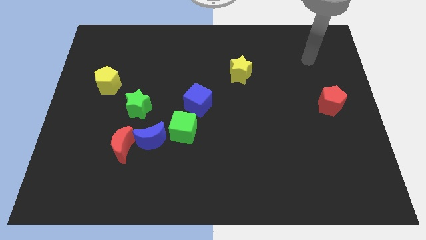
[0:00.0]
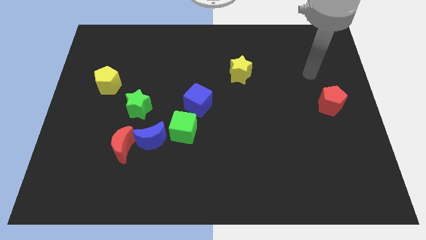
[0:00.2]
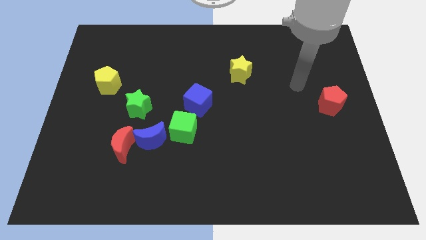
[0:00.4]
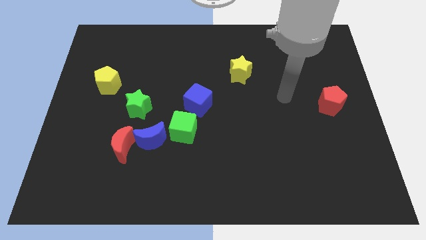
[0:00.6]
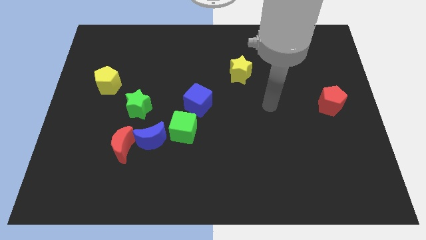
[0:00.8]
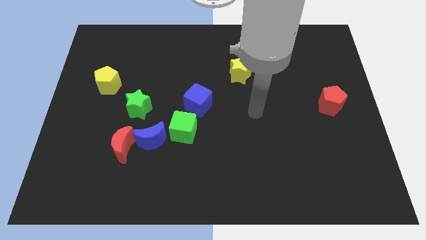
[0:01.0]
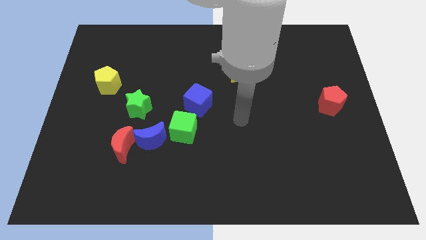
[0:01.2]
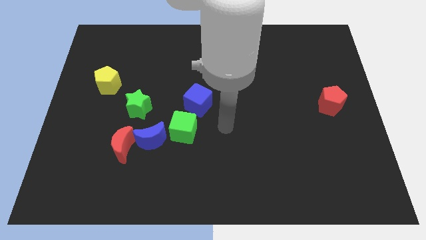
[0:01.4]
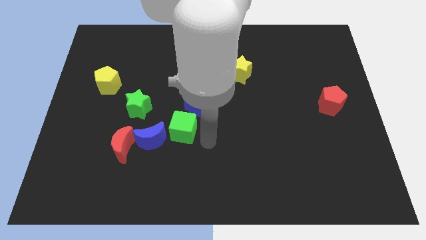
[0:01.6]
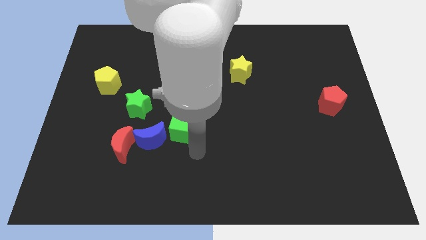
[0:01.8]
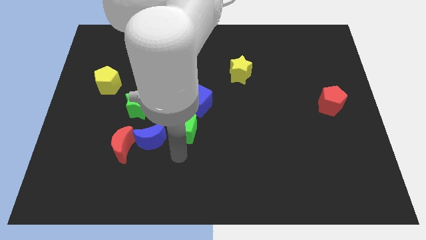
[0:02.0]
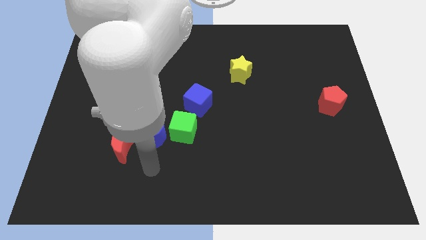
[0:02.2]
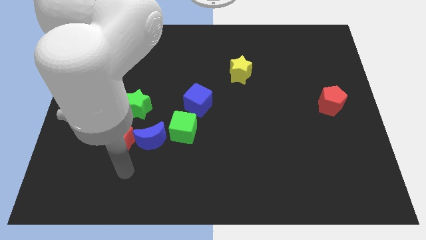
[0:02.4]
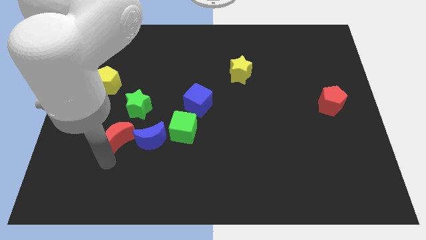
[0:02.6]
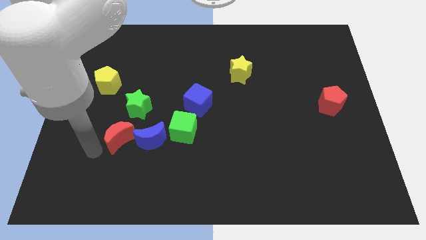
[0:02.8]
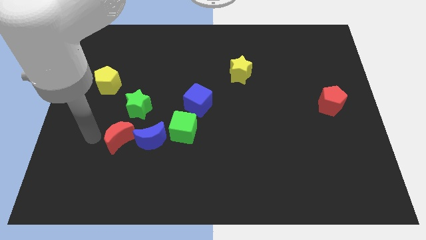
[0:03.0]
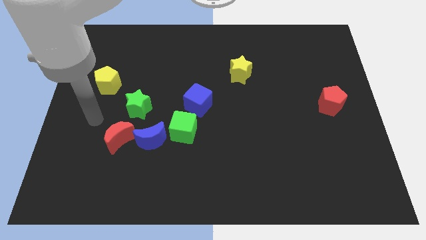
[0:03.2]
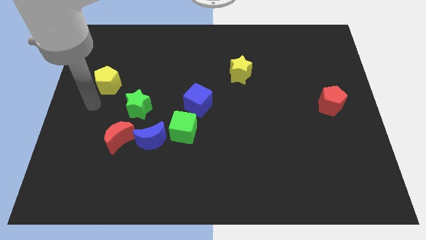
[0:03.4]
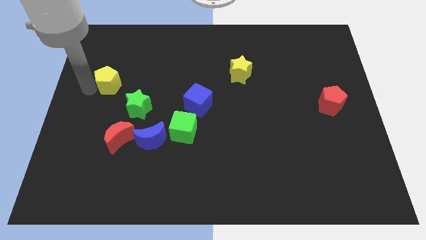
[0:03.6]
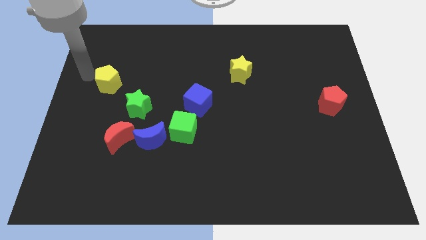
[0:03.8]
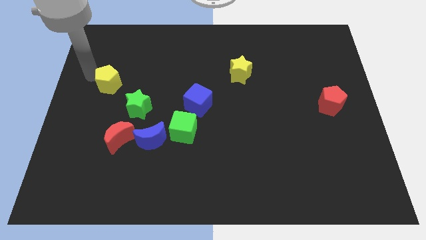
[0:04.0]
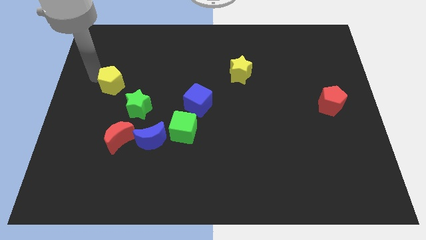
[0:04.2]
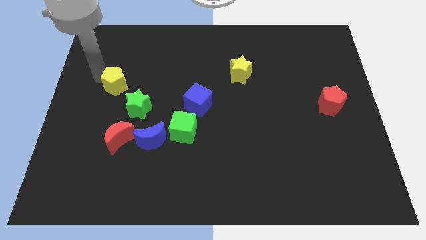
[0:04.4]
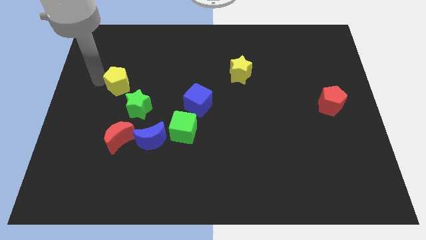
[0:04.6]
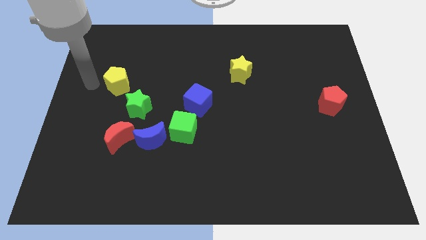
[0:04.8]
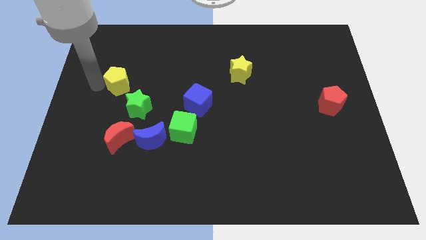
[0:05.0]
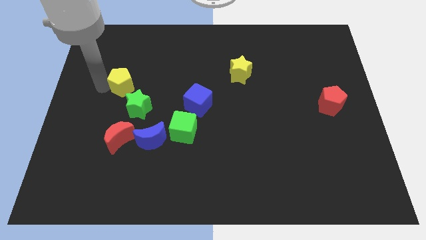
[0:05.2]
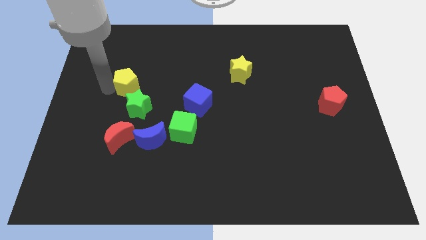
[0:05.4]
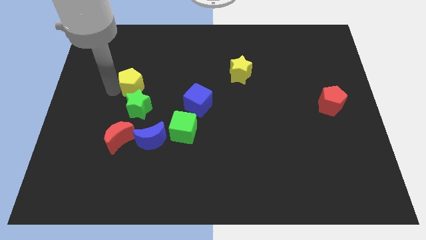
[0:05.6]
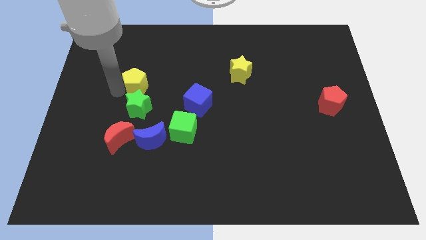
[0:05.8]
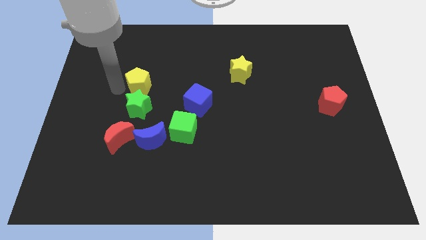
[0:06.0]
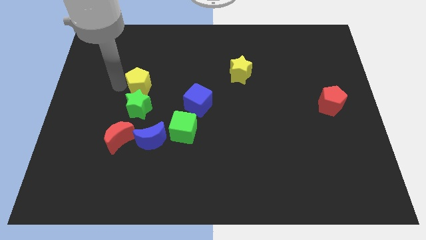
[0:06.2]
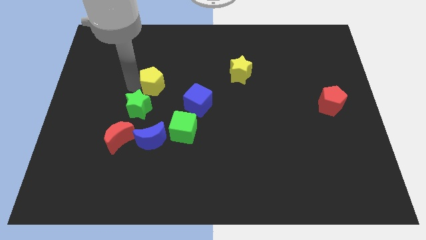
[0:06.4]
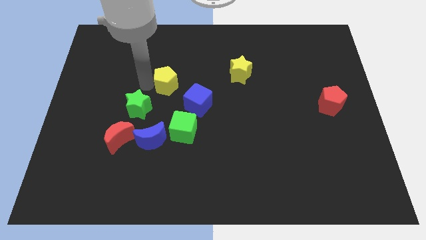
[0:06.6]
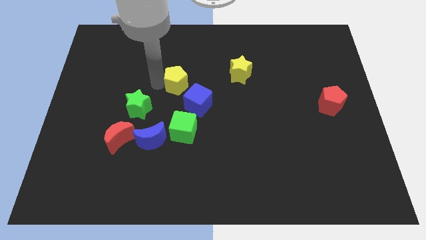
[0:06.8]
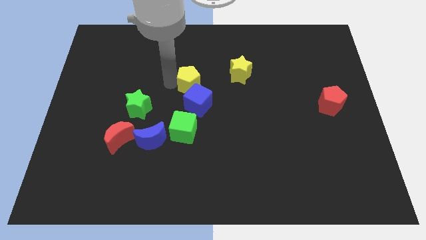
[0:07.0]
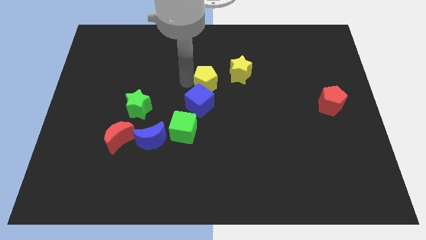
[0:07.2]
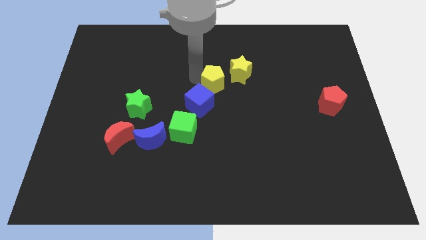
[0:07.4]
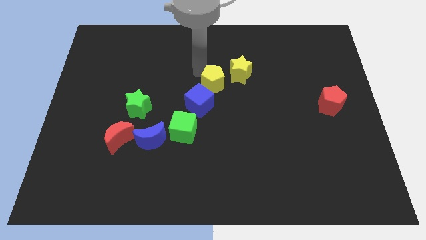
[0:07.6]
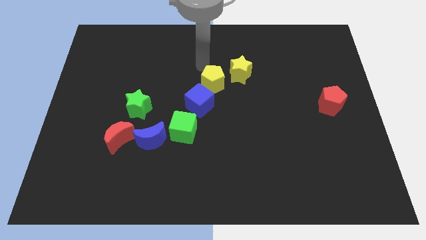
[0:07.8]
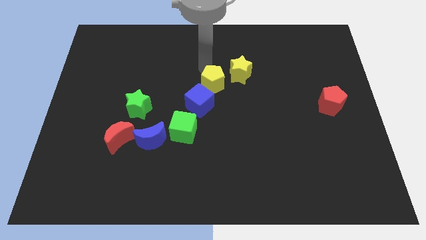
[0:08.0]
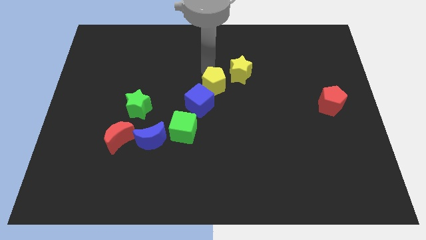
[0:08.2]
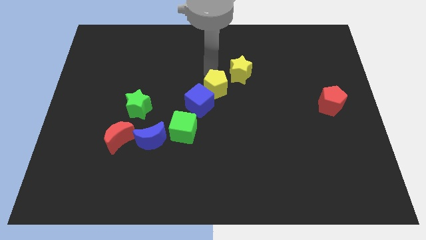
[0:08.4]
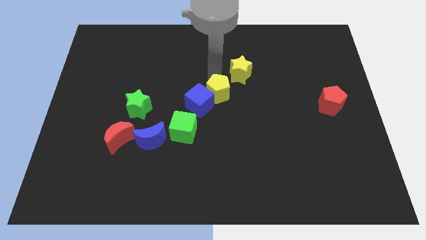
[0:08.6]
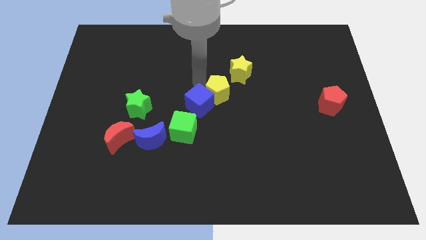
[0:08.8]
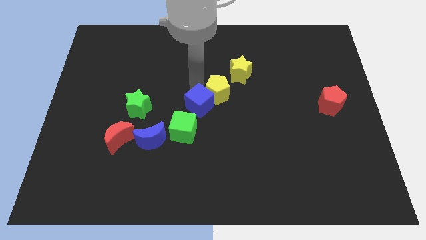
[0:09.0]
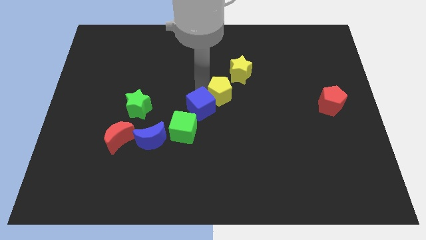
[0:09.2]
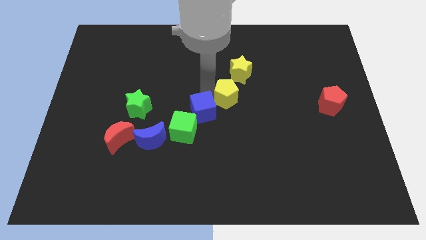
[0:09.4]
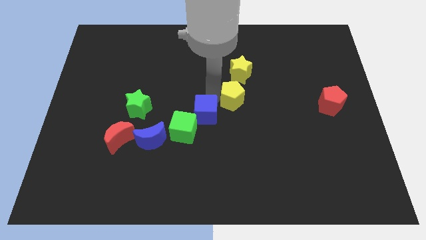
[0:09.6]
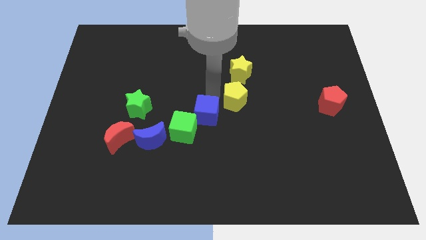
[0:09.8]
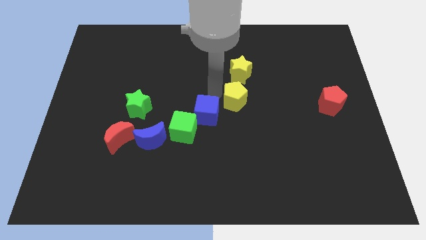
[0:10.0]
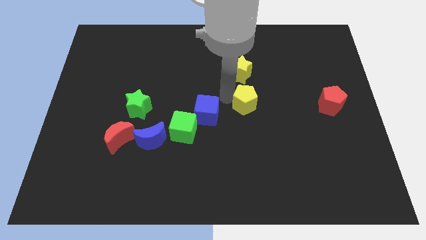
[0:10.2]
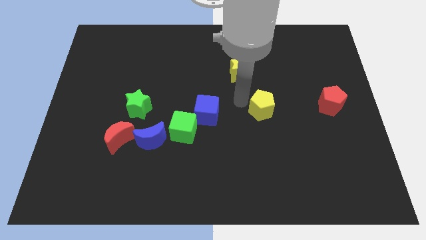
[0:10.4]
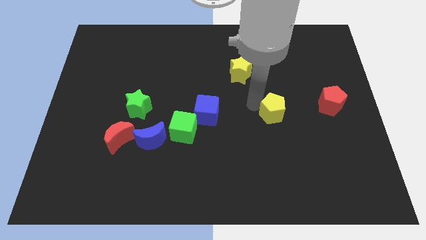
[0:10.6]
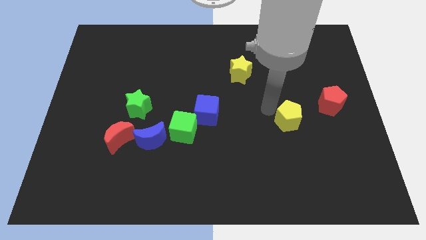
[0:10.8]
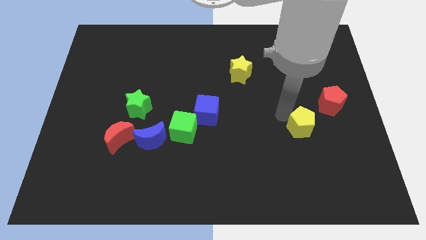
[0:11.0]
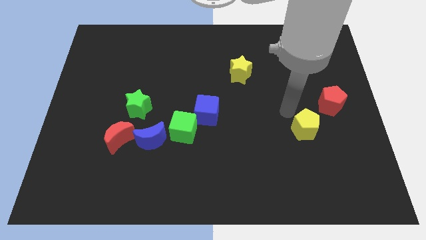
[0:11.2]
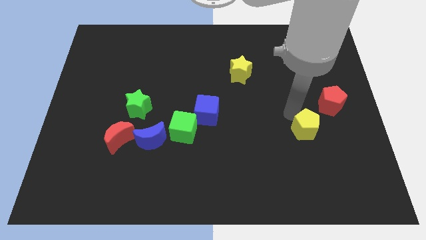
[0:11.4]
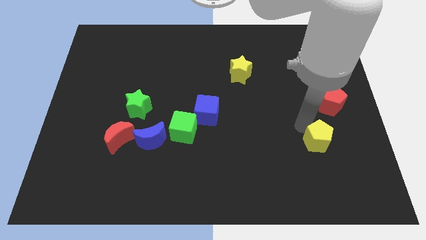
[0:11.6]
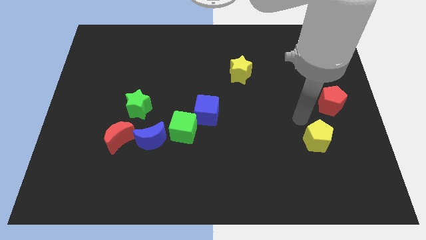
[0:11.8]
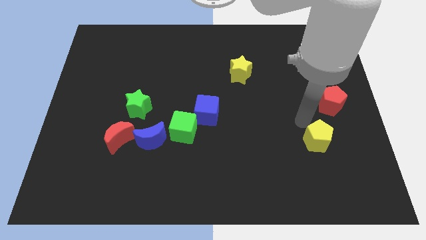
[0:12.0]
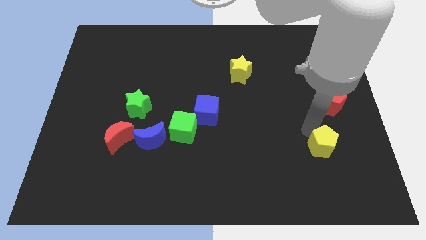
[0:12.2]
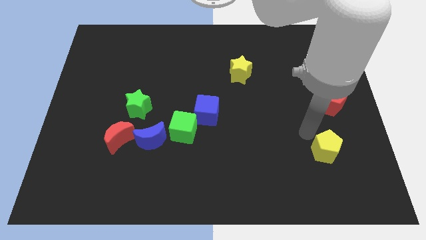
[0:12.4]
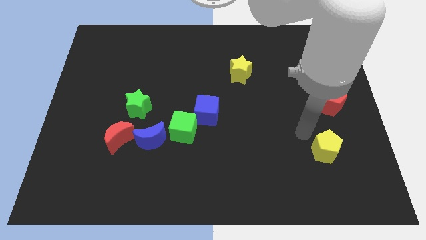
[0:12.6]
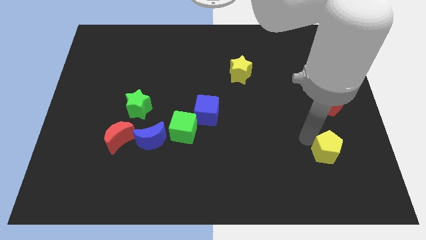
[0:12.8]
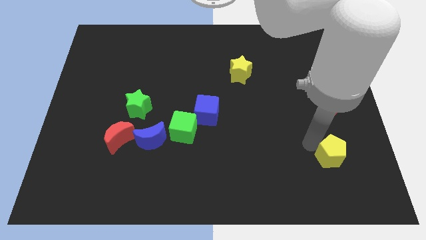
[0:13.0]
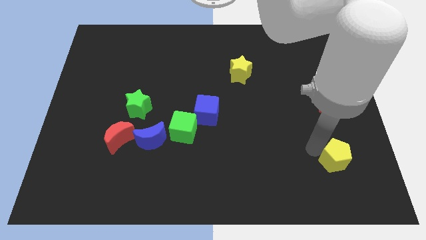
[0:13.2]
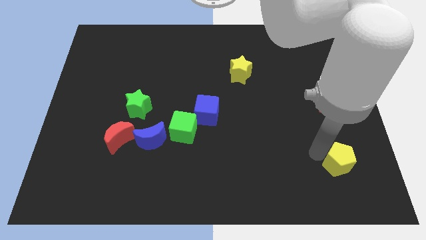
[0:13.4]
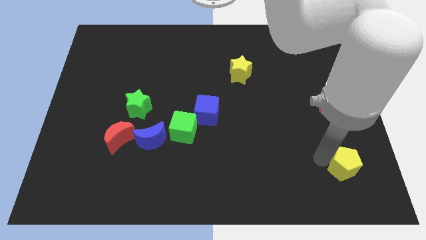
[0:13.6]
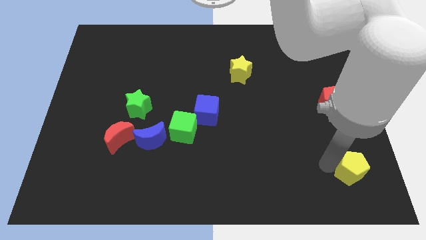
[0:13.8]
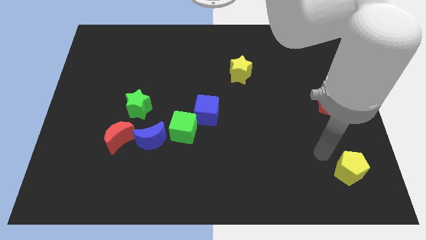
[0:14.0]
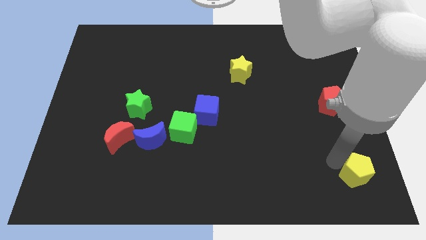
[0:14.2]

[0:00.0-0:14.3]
move the yellow pentagon to the bottom right corner
